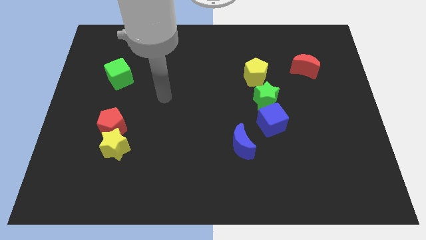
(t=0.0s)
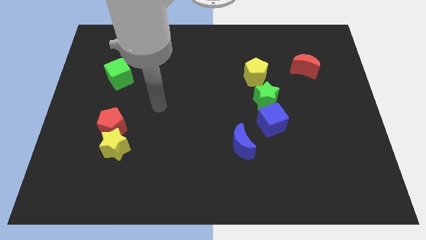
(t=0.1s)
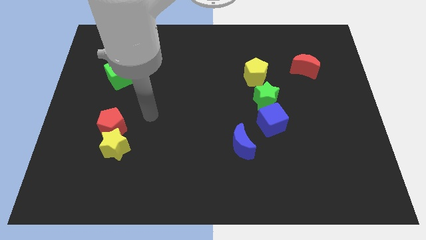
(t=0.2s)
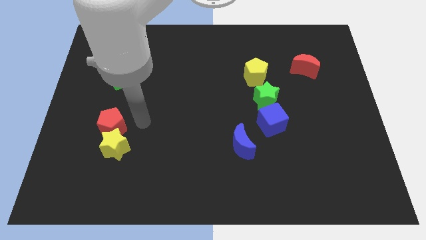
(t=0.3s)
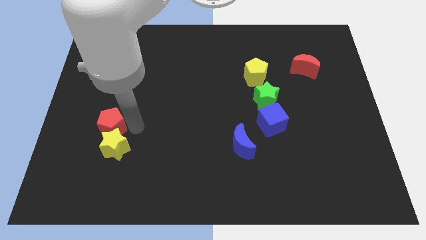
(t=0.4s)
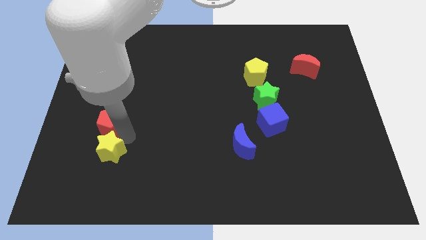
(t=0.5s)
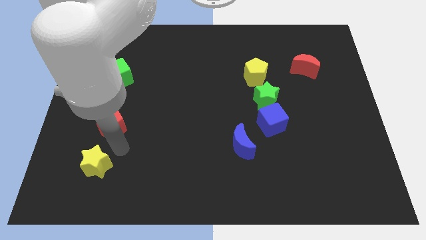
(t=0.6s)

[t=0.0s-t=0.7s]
move the red pentagon away from the yellow star

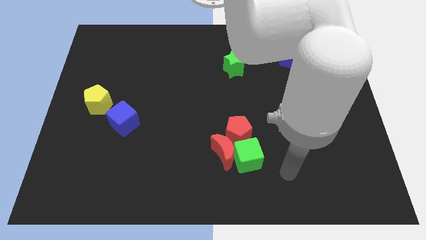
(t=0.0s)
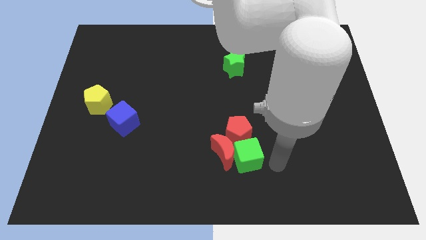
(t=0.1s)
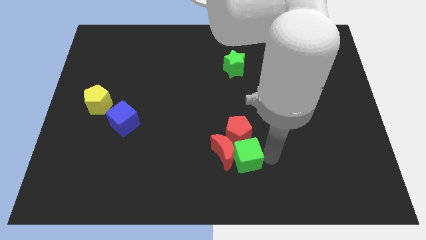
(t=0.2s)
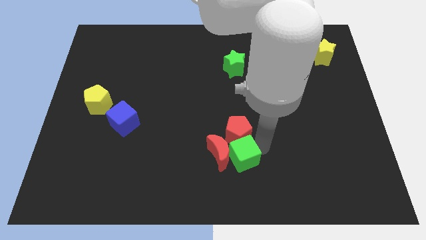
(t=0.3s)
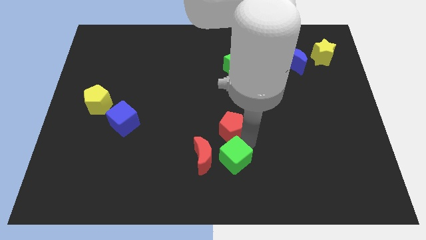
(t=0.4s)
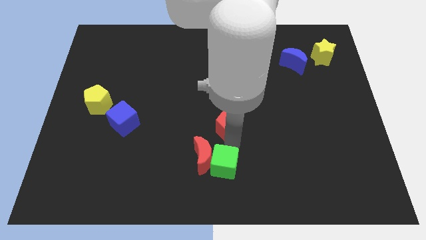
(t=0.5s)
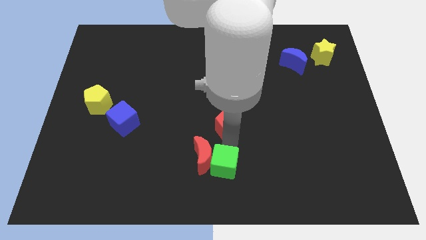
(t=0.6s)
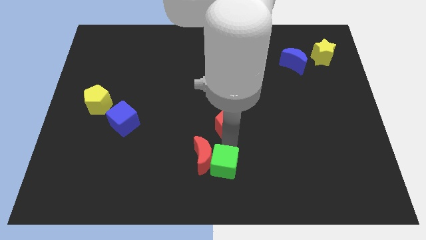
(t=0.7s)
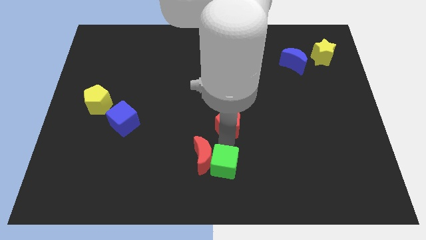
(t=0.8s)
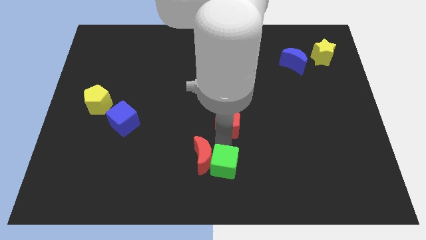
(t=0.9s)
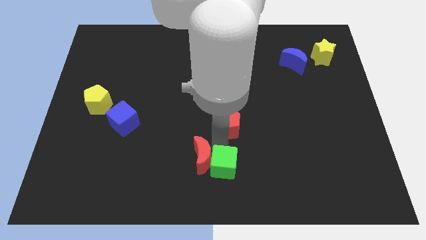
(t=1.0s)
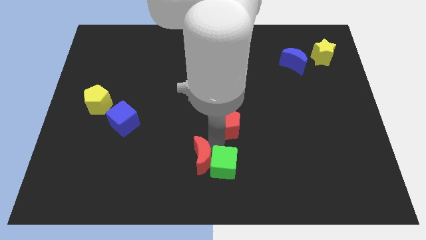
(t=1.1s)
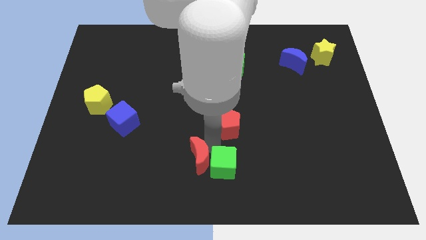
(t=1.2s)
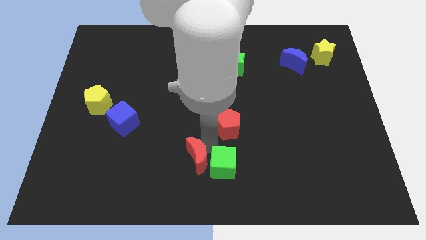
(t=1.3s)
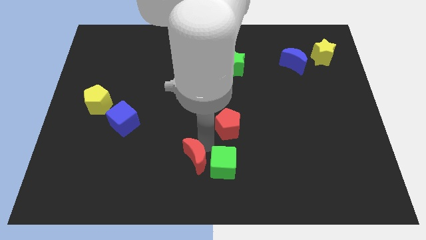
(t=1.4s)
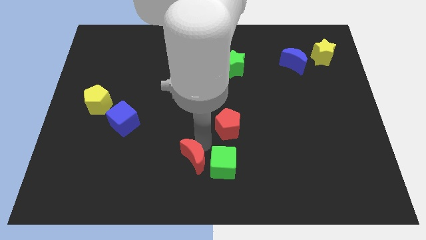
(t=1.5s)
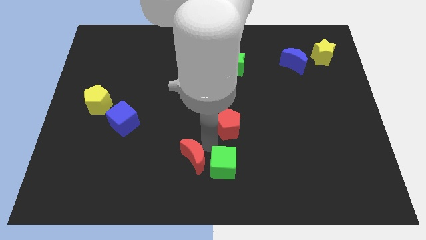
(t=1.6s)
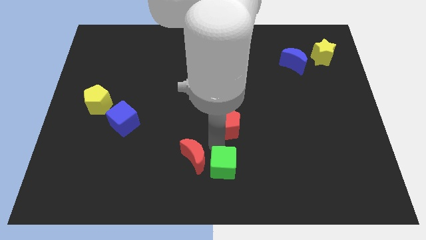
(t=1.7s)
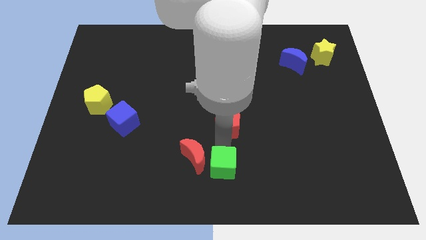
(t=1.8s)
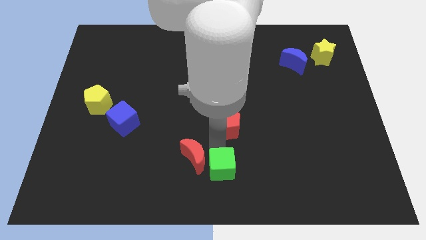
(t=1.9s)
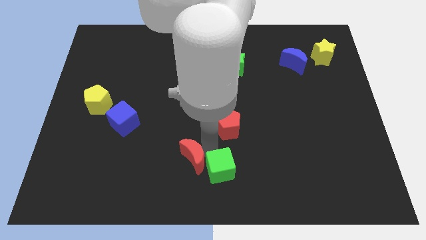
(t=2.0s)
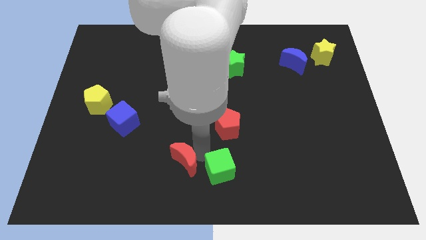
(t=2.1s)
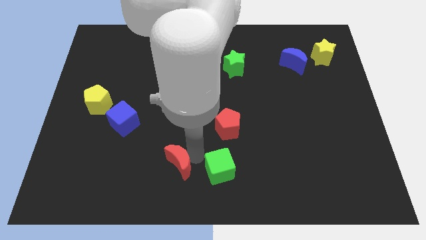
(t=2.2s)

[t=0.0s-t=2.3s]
move the red moon away from the green cube and red pentagon

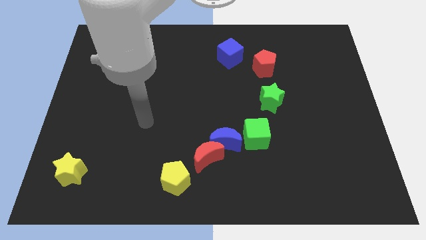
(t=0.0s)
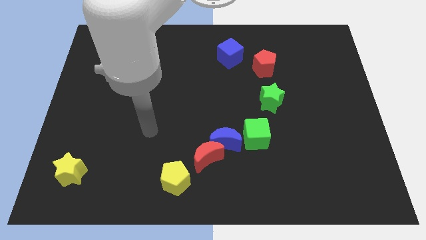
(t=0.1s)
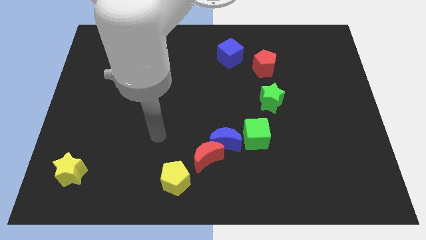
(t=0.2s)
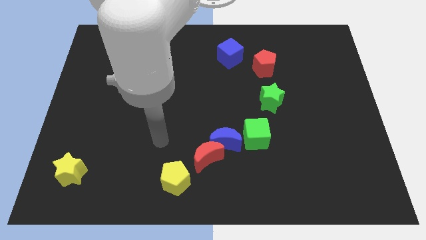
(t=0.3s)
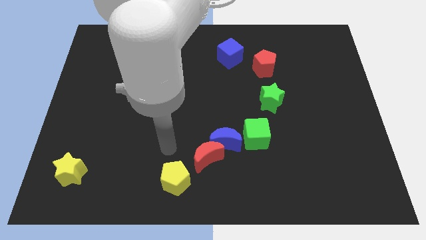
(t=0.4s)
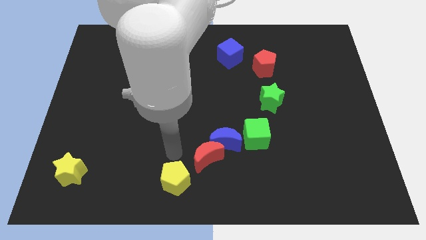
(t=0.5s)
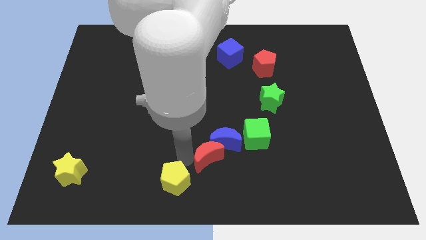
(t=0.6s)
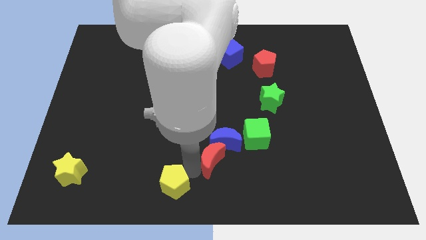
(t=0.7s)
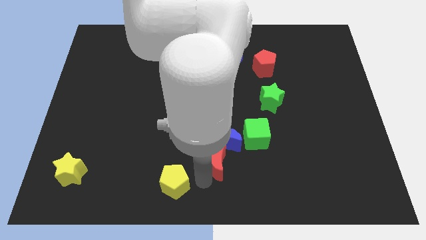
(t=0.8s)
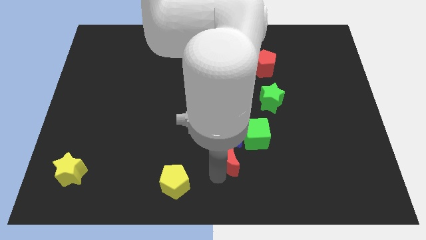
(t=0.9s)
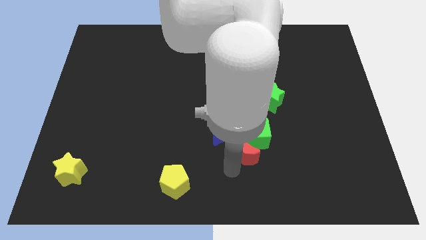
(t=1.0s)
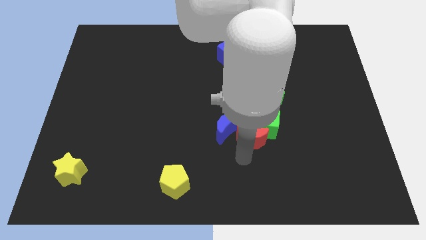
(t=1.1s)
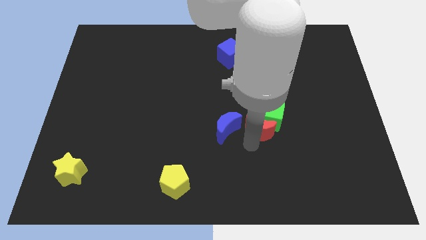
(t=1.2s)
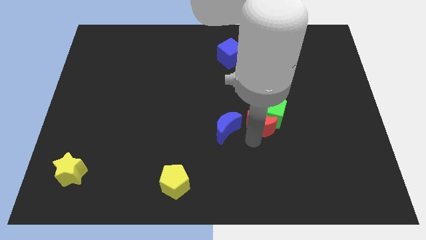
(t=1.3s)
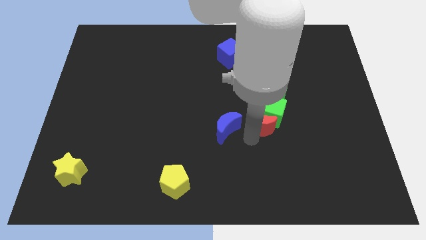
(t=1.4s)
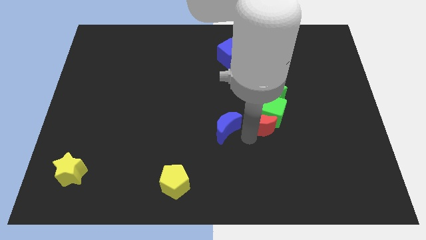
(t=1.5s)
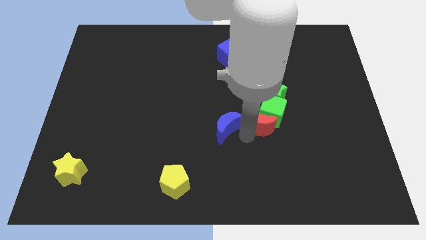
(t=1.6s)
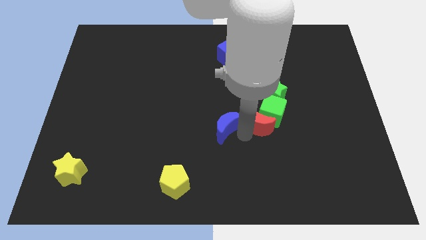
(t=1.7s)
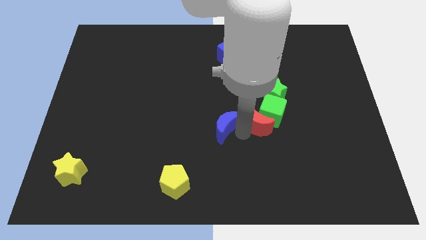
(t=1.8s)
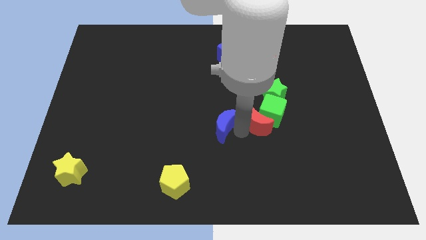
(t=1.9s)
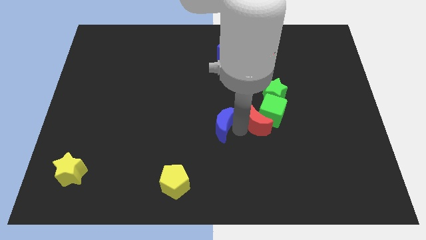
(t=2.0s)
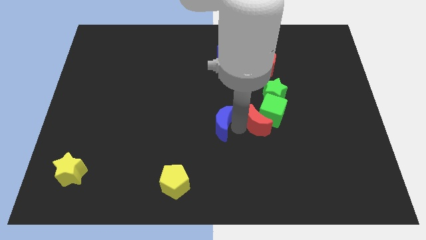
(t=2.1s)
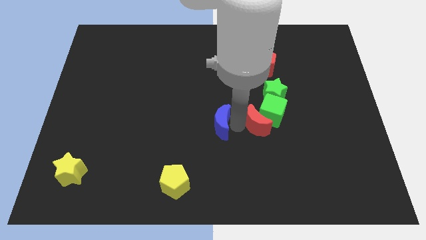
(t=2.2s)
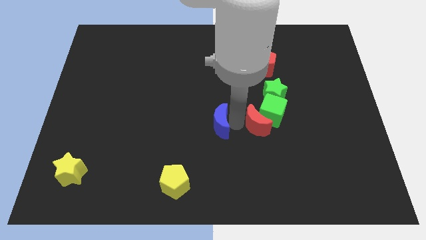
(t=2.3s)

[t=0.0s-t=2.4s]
separate the blue moon from the red moon and green cube

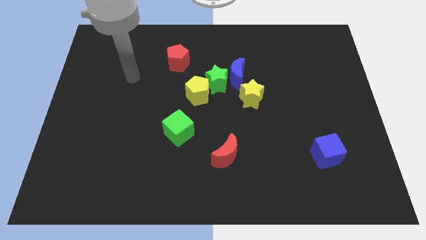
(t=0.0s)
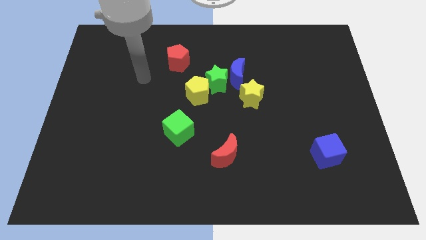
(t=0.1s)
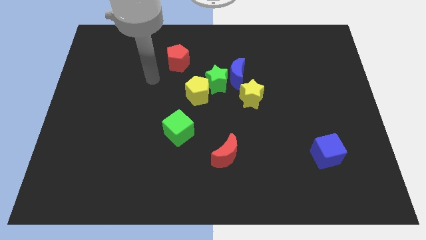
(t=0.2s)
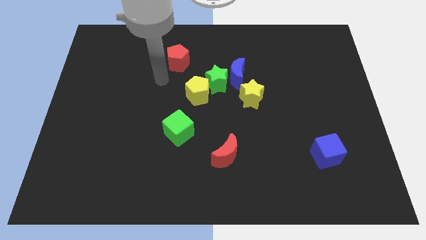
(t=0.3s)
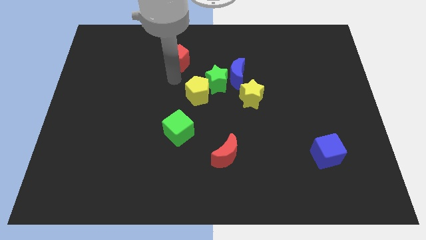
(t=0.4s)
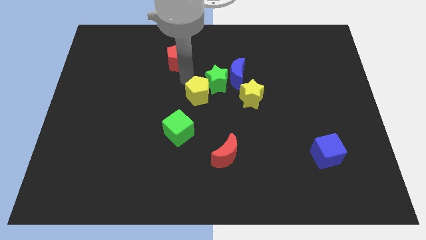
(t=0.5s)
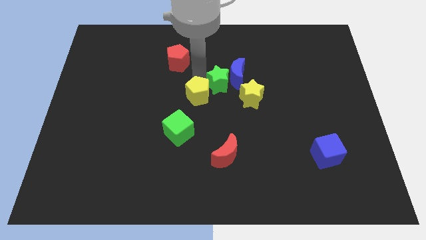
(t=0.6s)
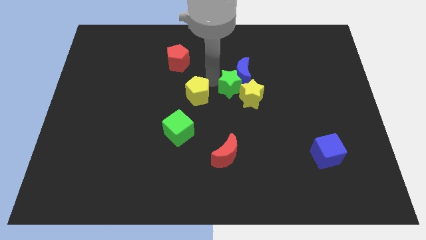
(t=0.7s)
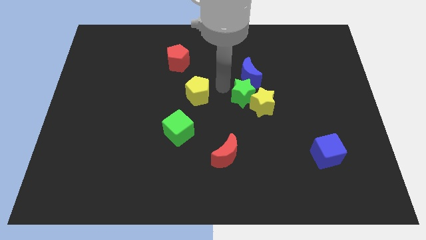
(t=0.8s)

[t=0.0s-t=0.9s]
pull the yellow pentagon apart from the green star

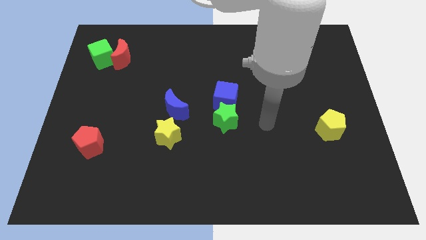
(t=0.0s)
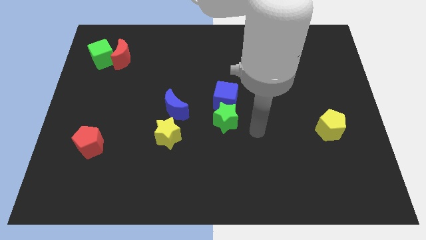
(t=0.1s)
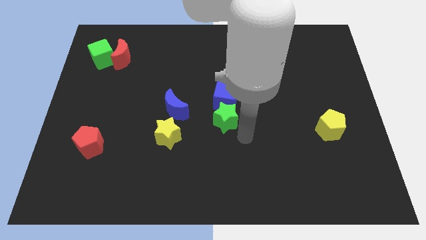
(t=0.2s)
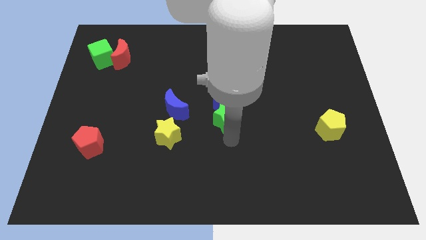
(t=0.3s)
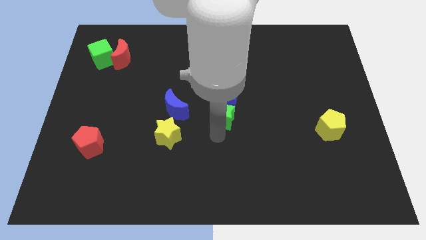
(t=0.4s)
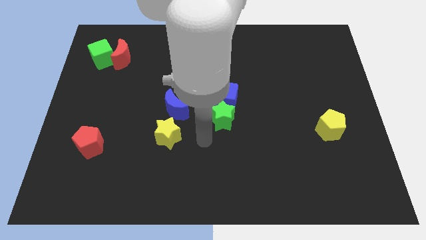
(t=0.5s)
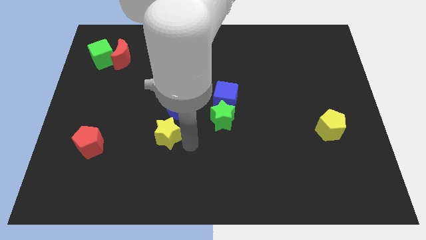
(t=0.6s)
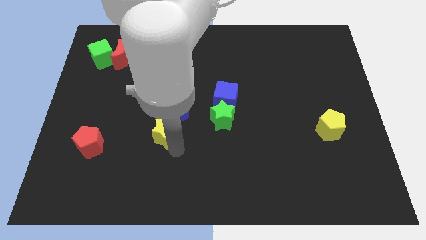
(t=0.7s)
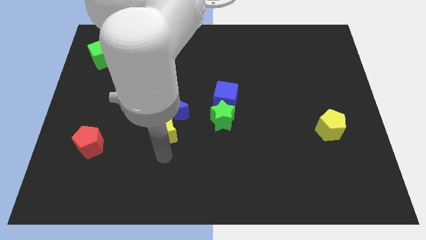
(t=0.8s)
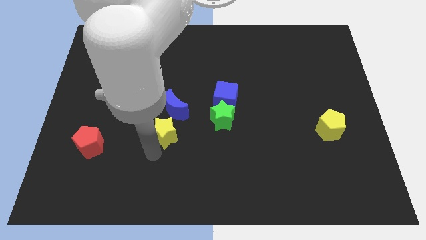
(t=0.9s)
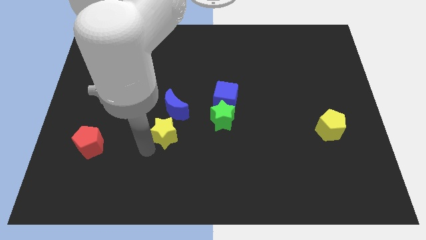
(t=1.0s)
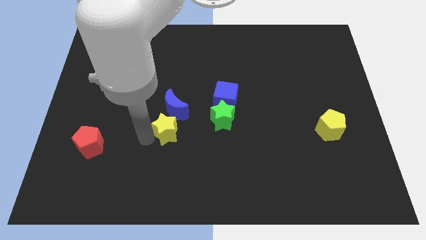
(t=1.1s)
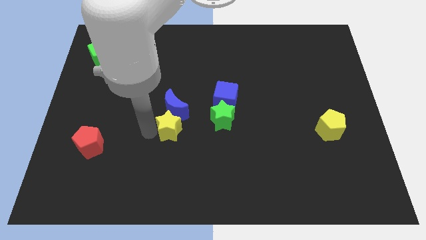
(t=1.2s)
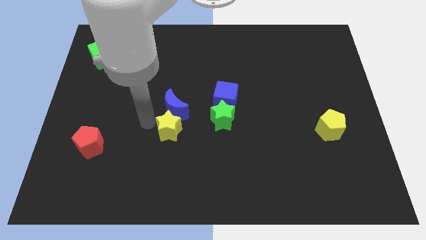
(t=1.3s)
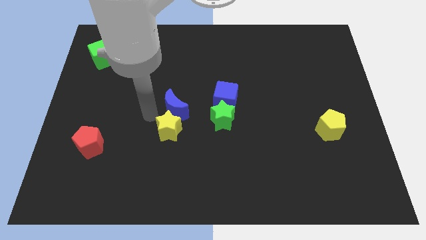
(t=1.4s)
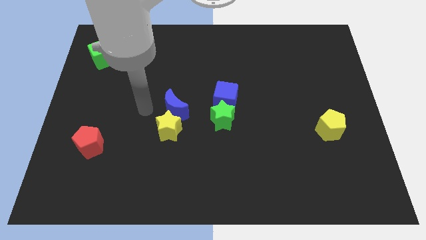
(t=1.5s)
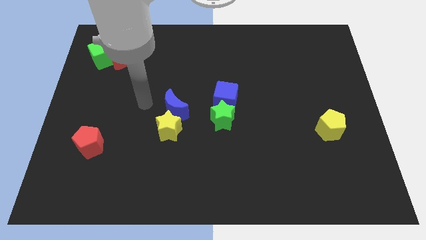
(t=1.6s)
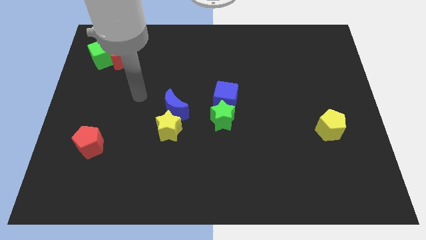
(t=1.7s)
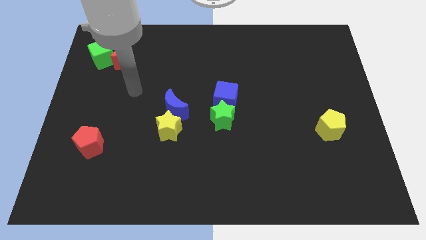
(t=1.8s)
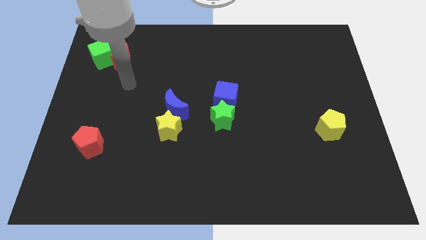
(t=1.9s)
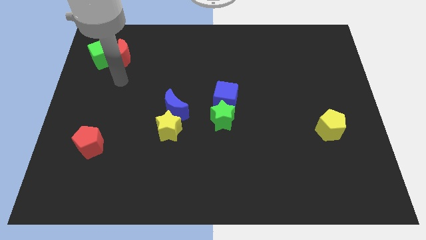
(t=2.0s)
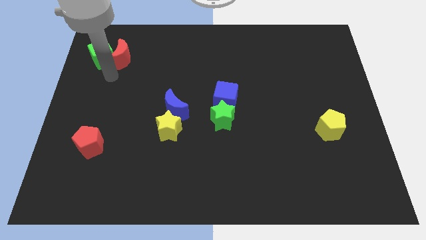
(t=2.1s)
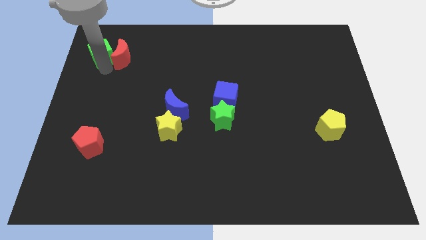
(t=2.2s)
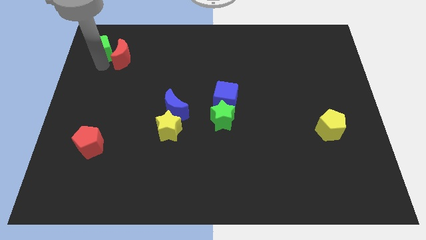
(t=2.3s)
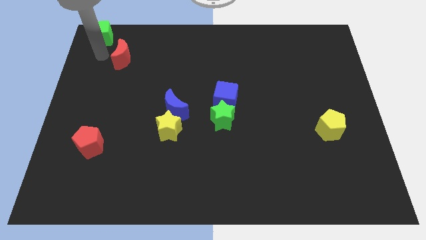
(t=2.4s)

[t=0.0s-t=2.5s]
separate the red moon from the green cube

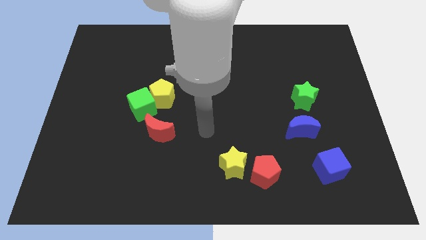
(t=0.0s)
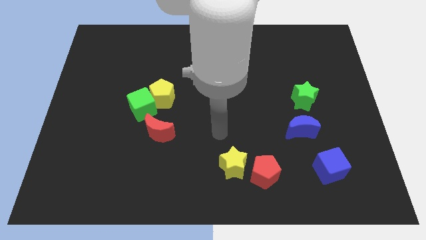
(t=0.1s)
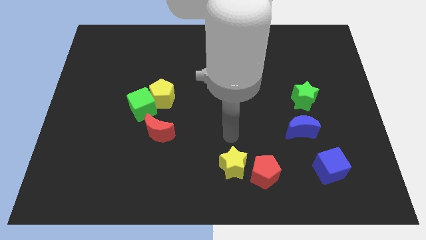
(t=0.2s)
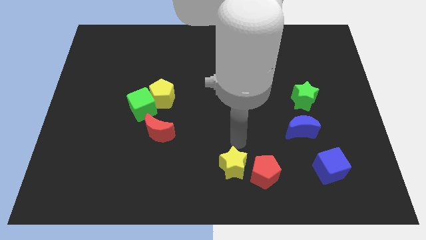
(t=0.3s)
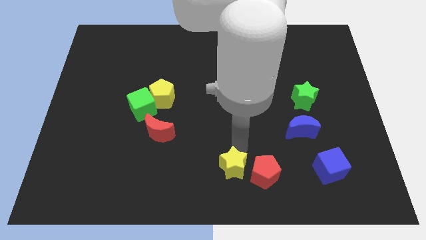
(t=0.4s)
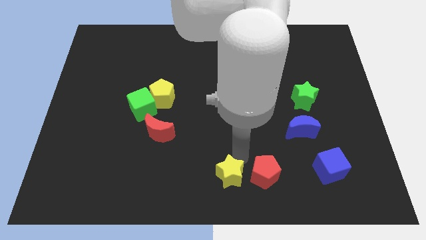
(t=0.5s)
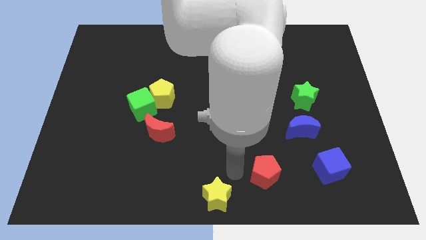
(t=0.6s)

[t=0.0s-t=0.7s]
separate the red pentagon from the yellow star
